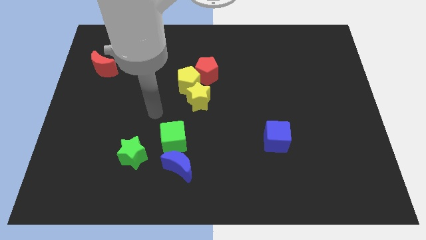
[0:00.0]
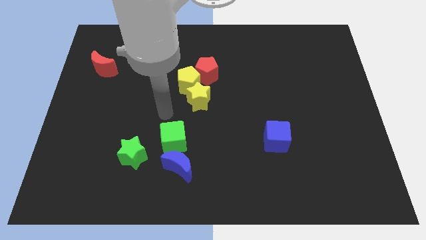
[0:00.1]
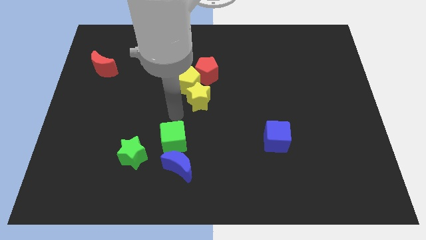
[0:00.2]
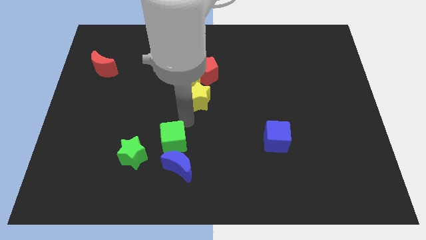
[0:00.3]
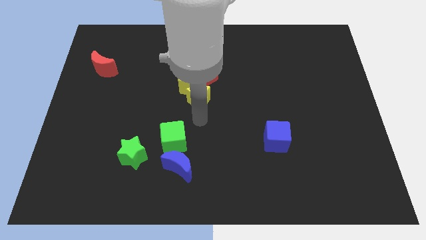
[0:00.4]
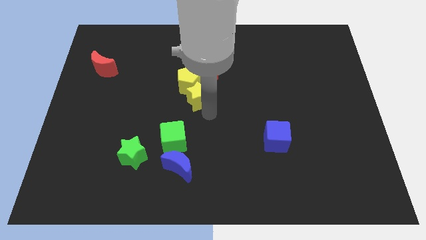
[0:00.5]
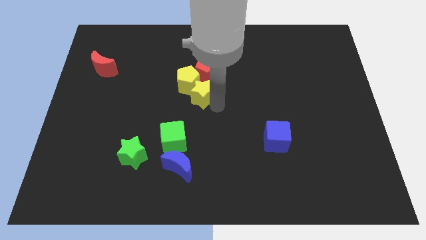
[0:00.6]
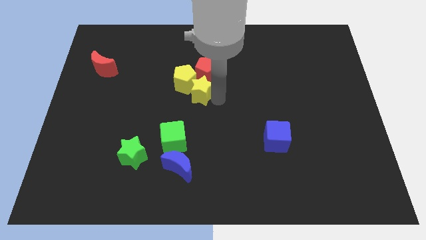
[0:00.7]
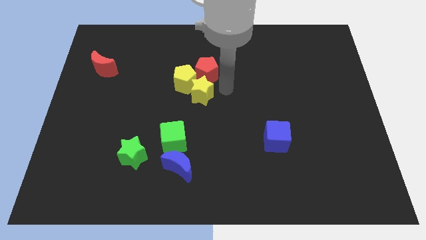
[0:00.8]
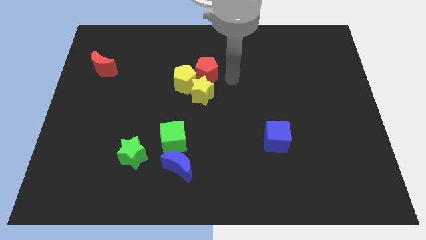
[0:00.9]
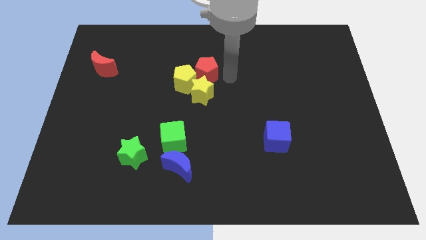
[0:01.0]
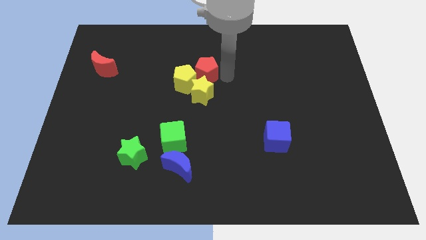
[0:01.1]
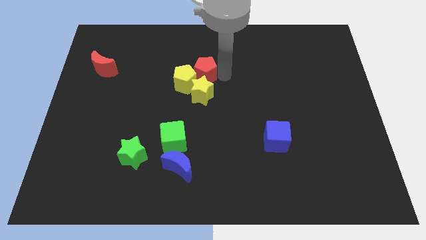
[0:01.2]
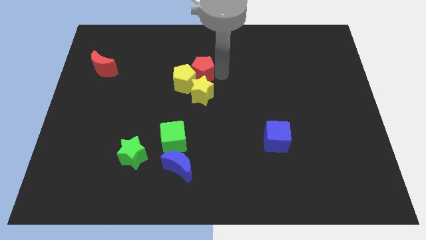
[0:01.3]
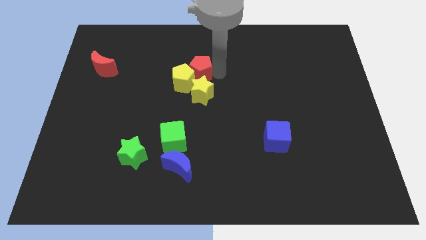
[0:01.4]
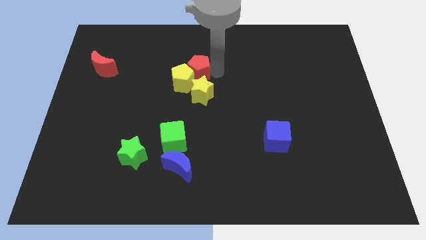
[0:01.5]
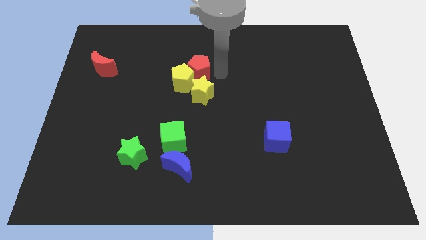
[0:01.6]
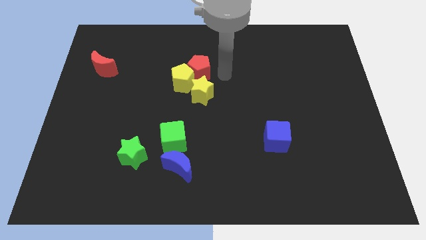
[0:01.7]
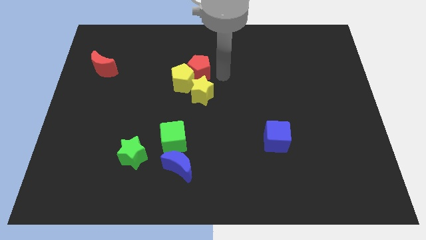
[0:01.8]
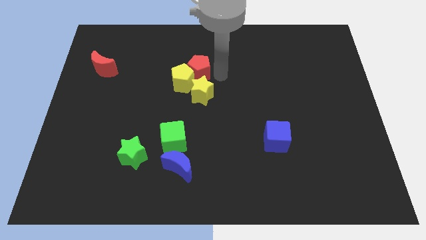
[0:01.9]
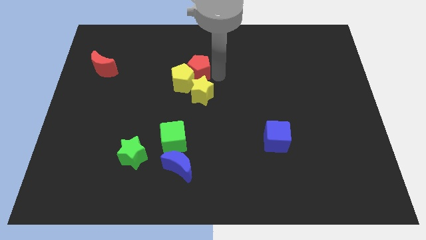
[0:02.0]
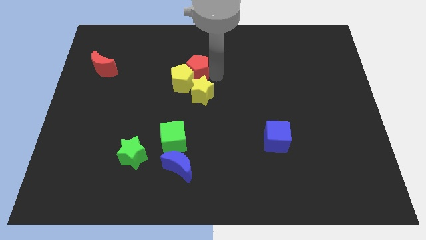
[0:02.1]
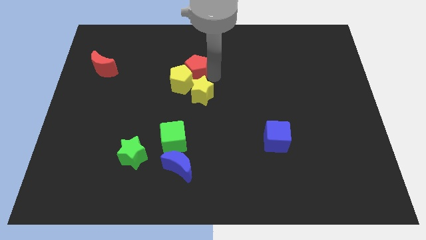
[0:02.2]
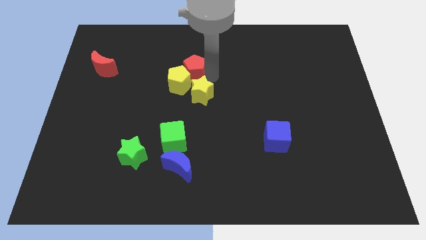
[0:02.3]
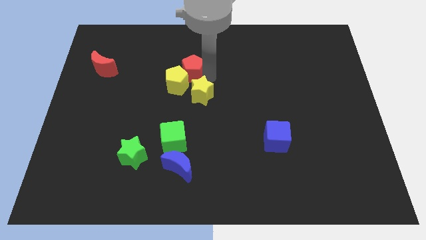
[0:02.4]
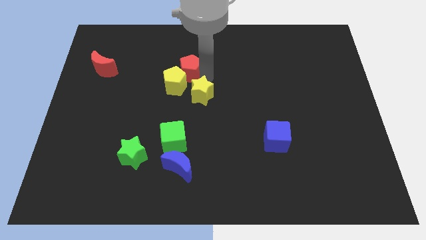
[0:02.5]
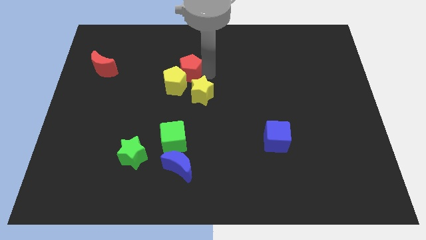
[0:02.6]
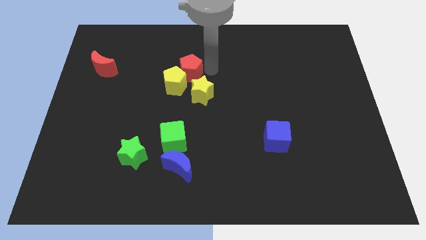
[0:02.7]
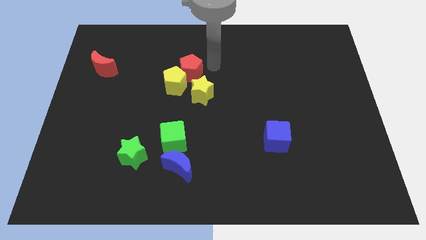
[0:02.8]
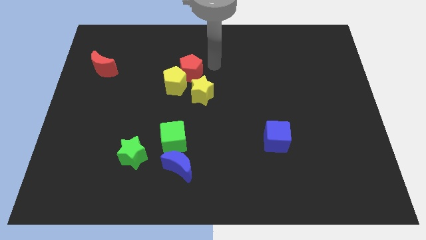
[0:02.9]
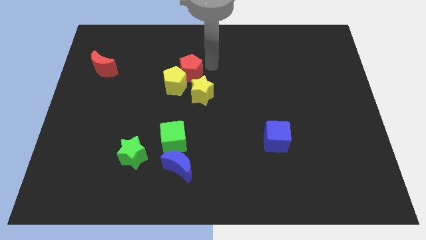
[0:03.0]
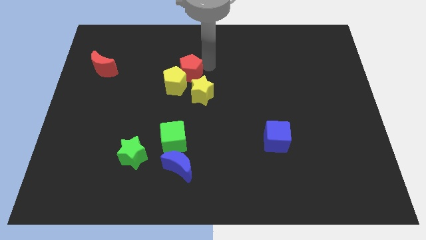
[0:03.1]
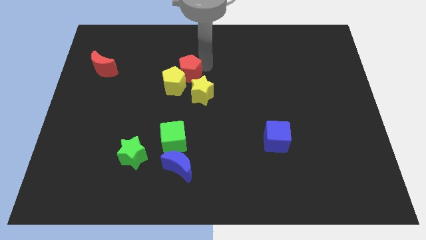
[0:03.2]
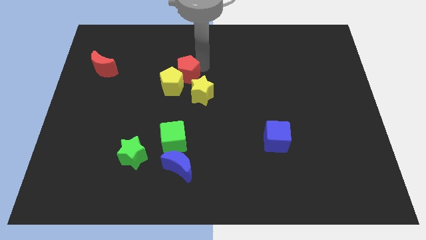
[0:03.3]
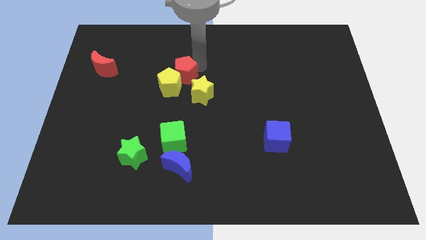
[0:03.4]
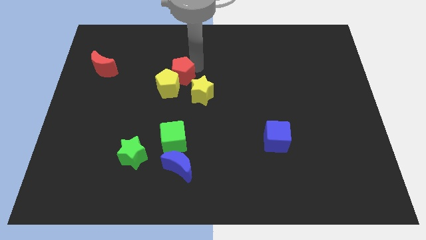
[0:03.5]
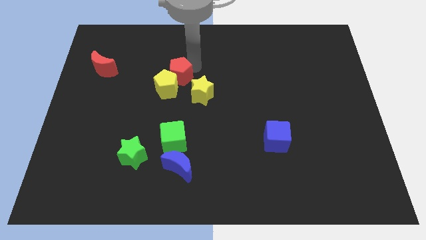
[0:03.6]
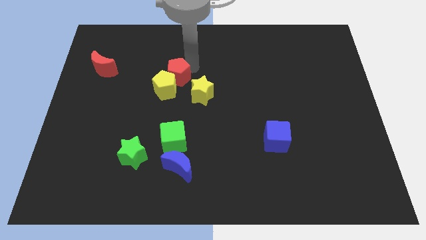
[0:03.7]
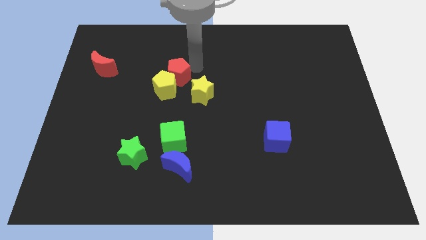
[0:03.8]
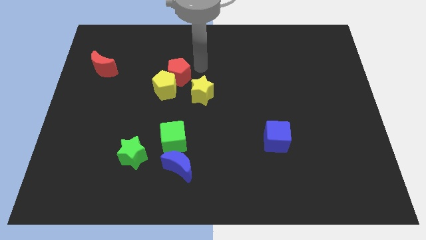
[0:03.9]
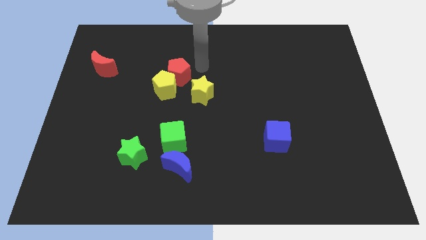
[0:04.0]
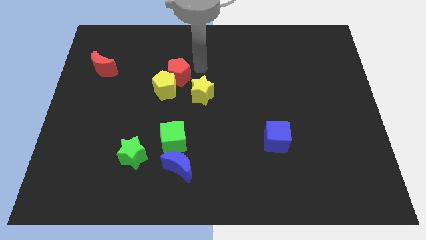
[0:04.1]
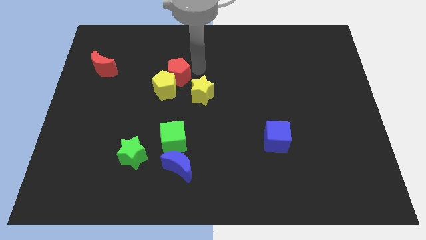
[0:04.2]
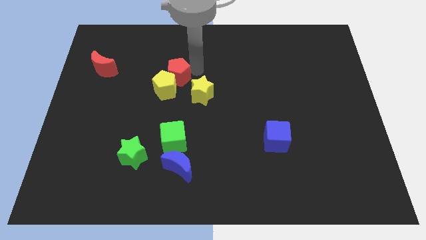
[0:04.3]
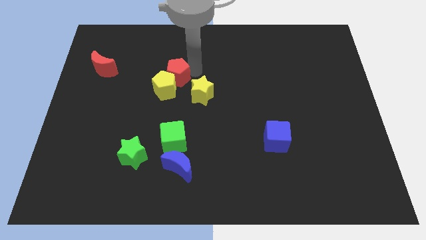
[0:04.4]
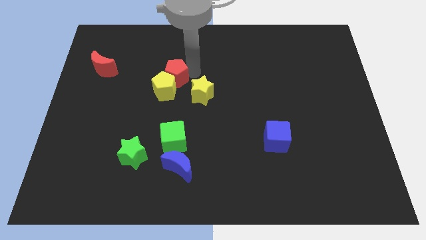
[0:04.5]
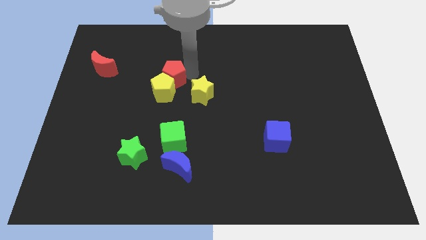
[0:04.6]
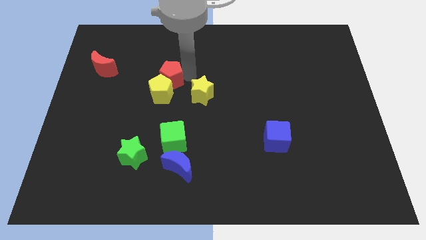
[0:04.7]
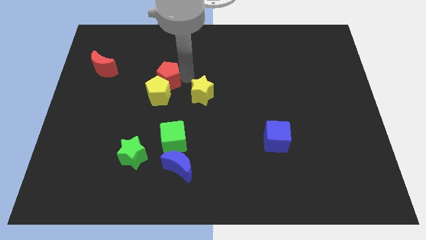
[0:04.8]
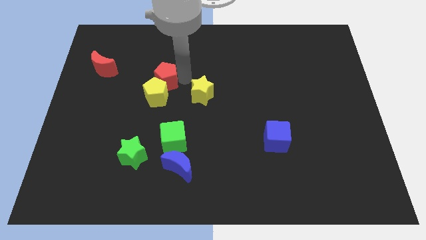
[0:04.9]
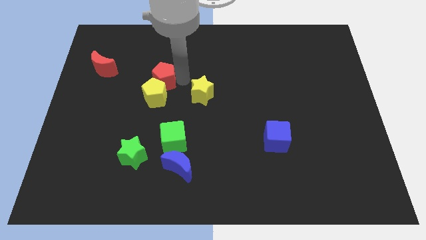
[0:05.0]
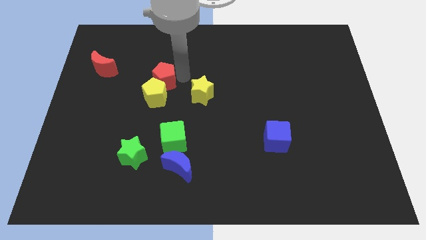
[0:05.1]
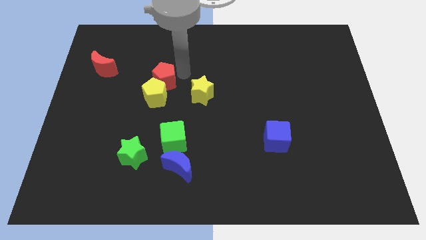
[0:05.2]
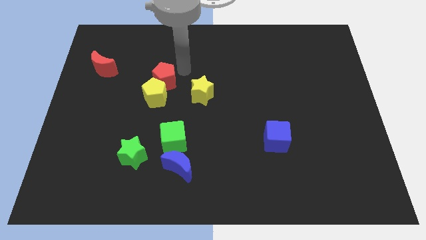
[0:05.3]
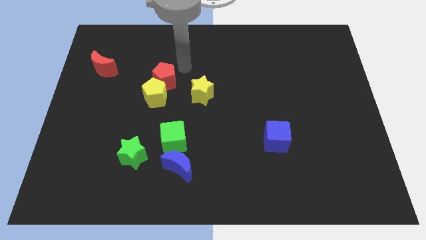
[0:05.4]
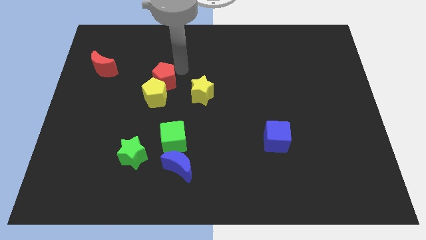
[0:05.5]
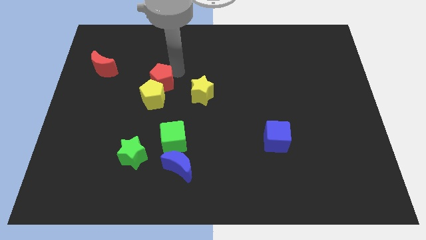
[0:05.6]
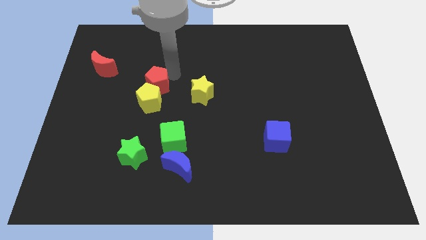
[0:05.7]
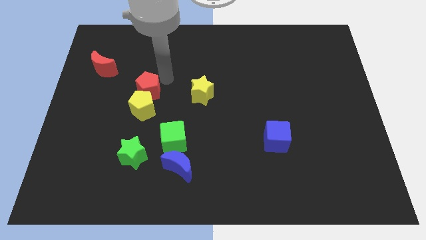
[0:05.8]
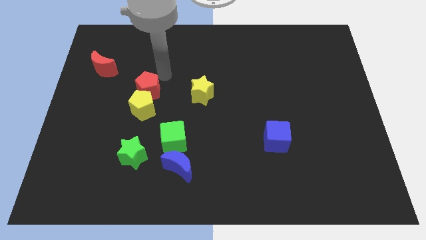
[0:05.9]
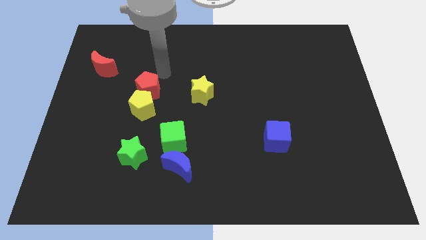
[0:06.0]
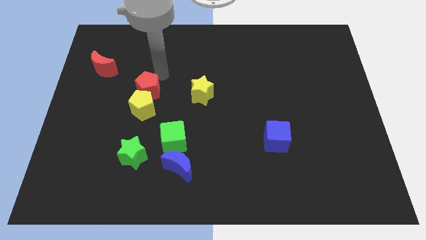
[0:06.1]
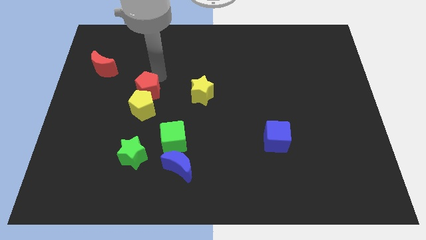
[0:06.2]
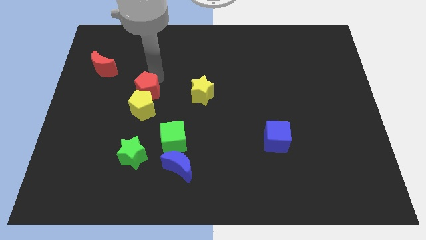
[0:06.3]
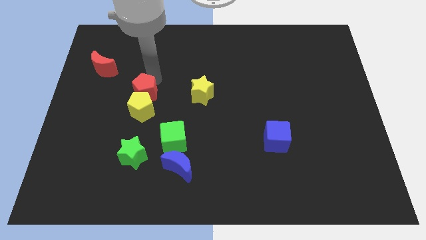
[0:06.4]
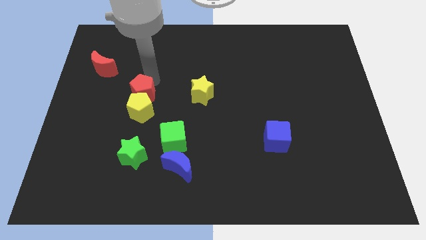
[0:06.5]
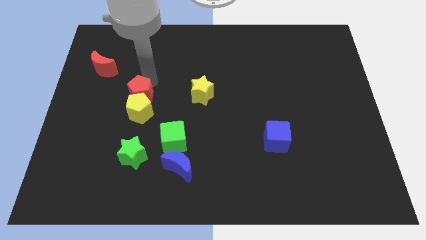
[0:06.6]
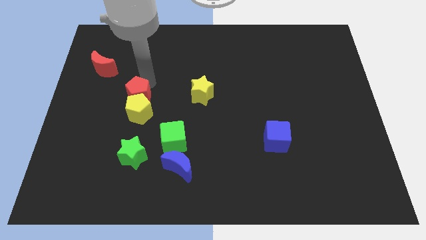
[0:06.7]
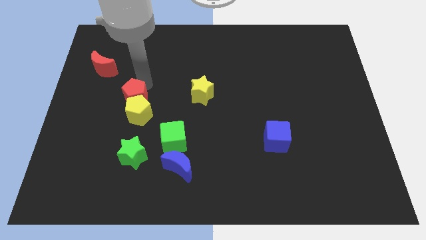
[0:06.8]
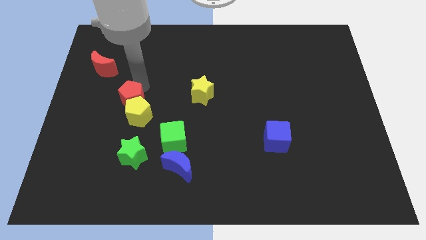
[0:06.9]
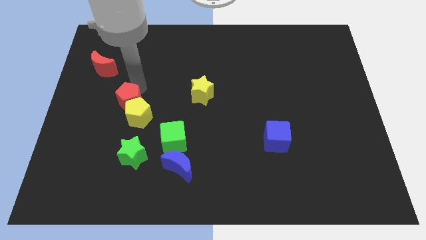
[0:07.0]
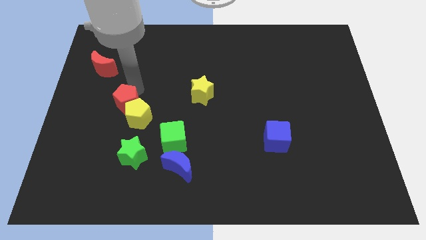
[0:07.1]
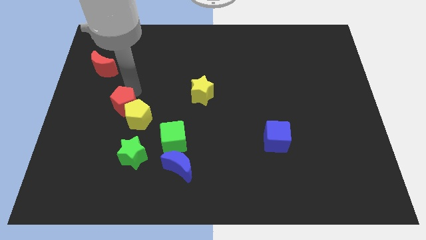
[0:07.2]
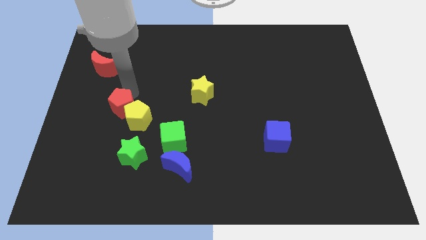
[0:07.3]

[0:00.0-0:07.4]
move the red pentagon diagonally downwards and to the left

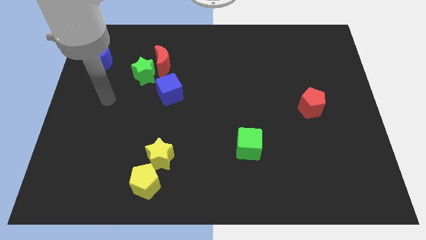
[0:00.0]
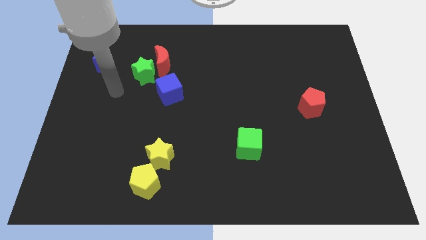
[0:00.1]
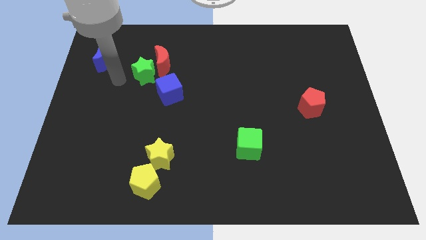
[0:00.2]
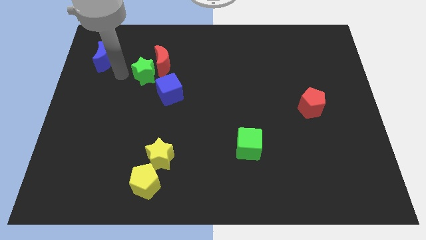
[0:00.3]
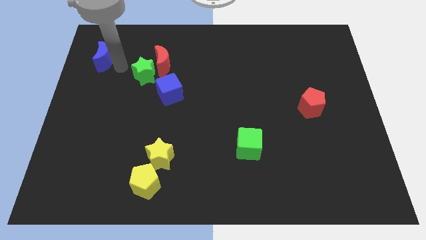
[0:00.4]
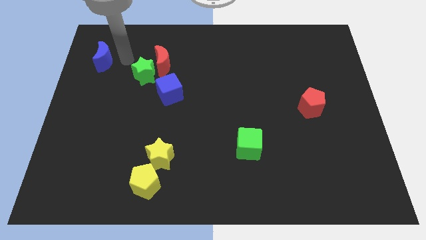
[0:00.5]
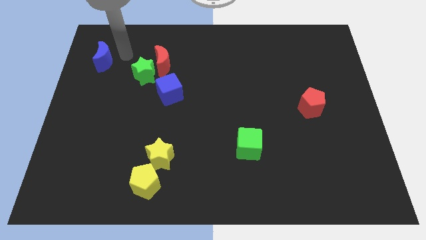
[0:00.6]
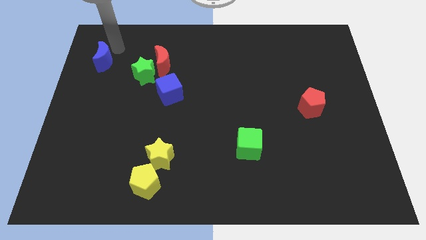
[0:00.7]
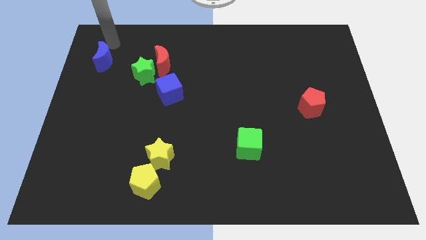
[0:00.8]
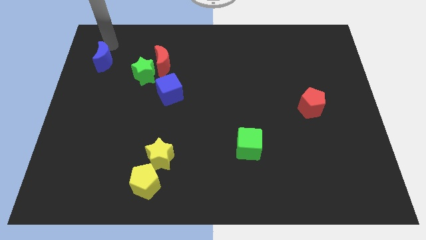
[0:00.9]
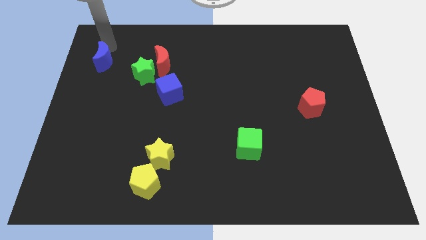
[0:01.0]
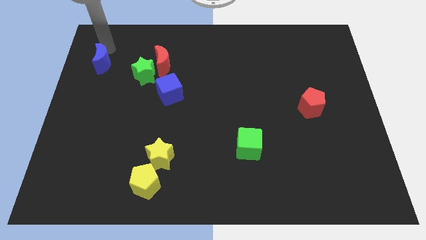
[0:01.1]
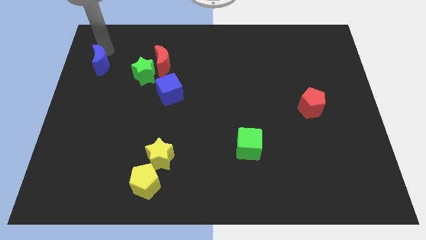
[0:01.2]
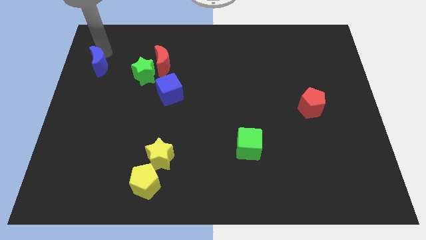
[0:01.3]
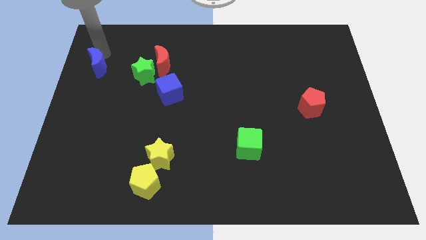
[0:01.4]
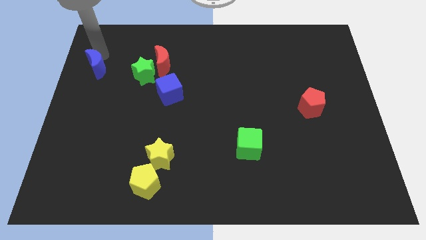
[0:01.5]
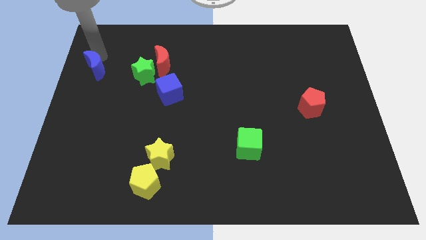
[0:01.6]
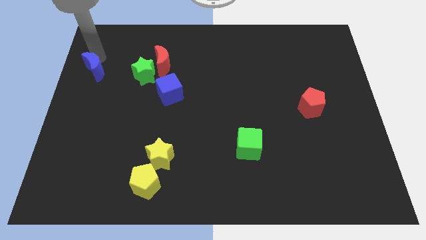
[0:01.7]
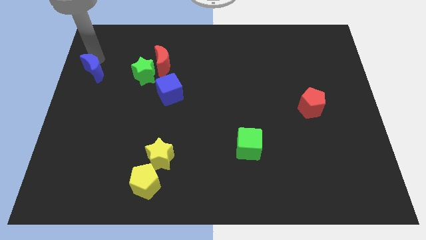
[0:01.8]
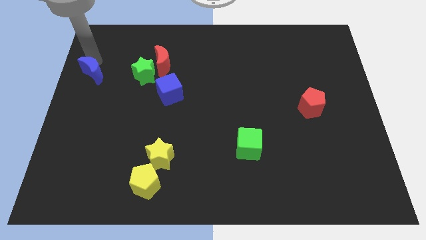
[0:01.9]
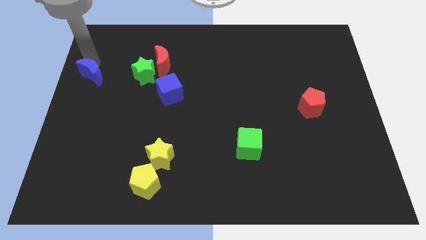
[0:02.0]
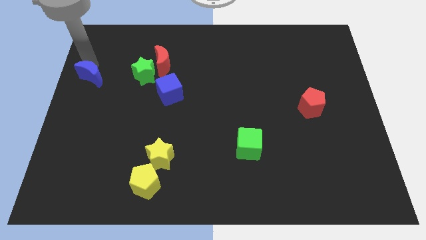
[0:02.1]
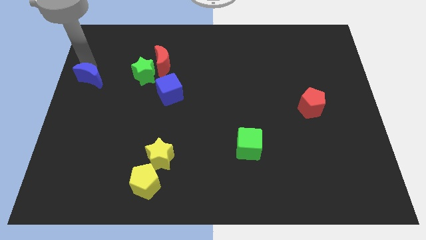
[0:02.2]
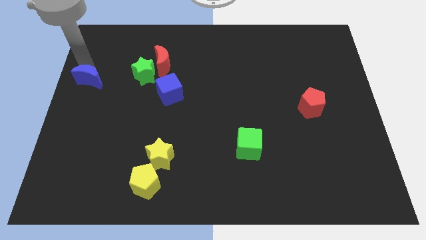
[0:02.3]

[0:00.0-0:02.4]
push the blue moon down somewhat
